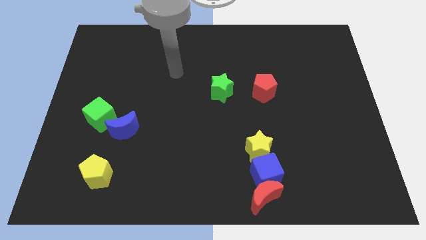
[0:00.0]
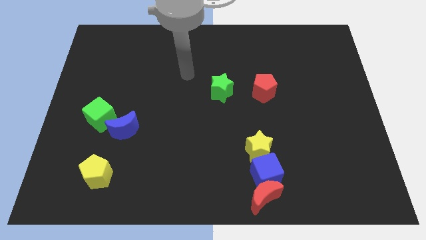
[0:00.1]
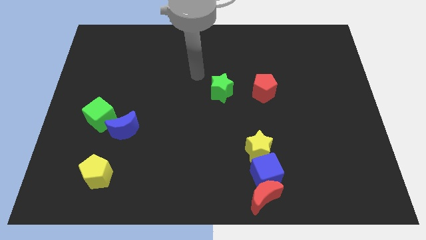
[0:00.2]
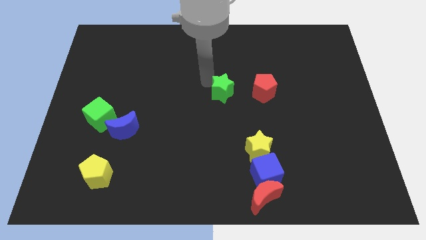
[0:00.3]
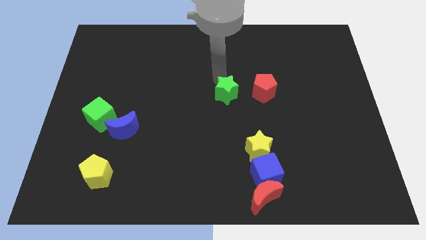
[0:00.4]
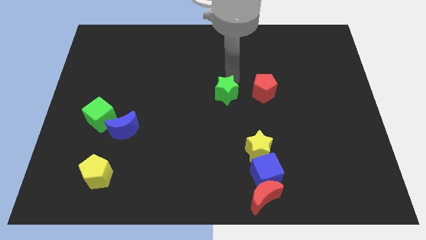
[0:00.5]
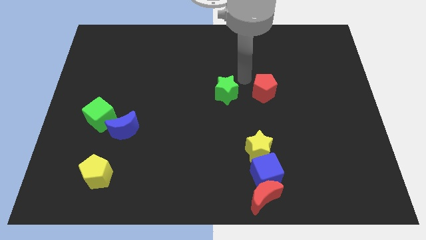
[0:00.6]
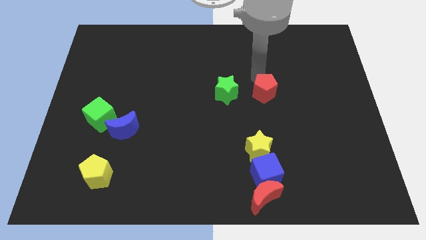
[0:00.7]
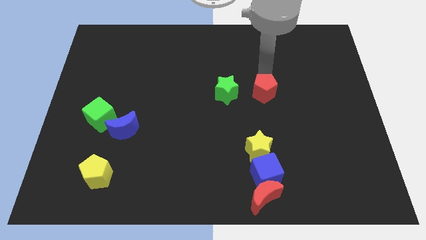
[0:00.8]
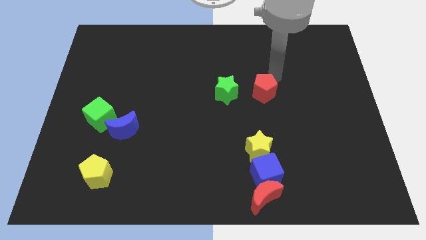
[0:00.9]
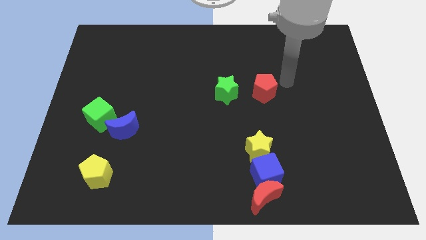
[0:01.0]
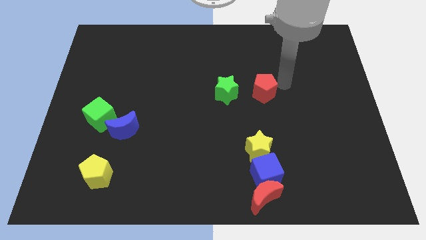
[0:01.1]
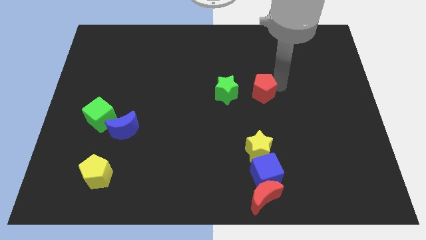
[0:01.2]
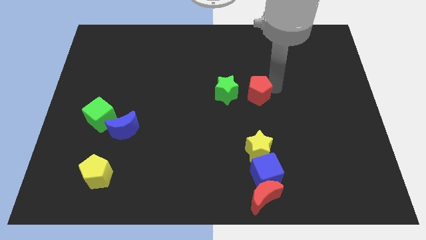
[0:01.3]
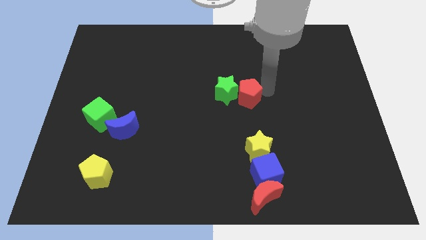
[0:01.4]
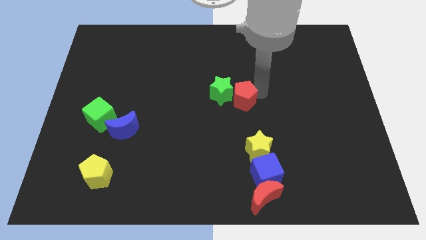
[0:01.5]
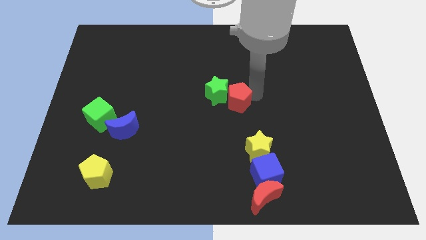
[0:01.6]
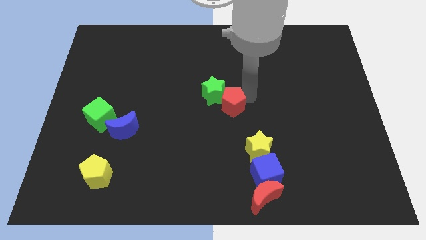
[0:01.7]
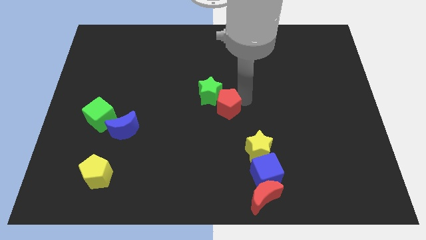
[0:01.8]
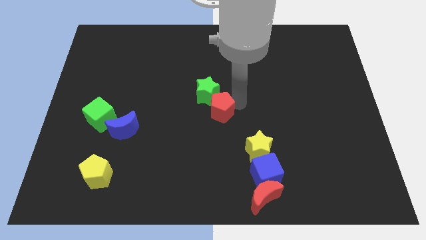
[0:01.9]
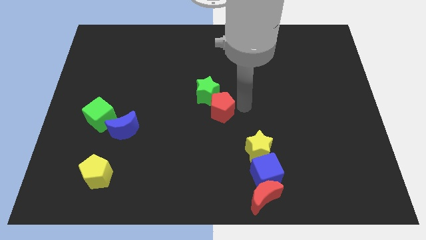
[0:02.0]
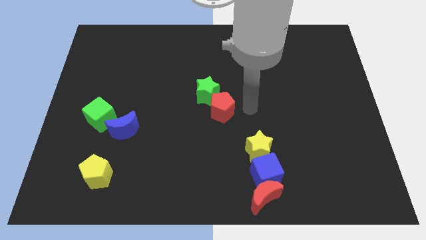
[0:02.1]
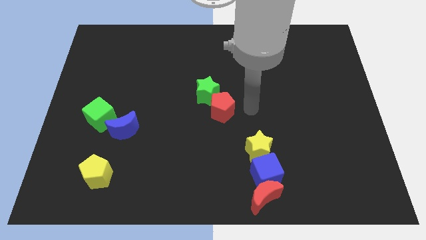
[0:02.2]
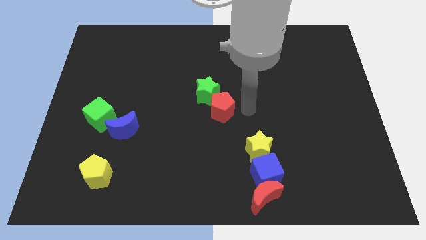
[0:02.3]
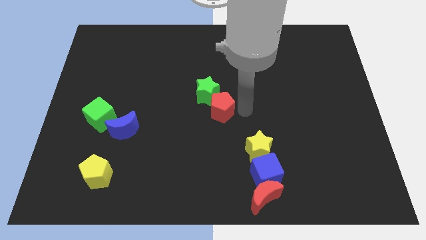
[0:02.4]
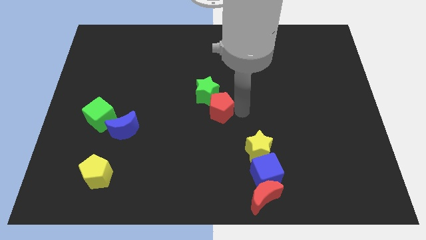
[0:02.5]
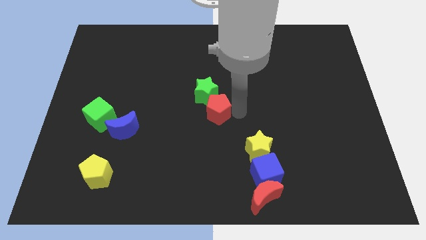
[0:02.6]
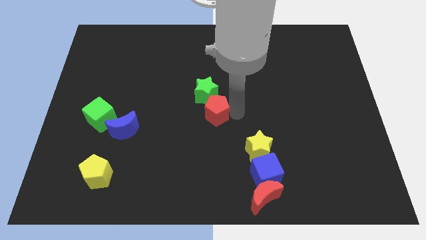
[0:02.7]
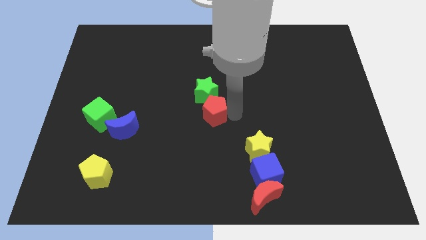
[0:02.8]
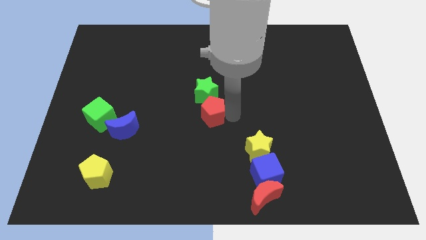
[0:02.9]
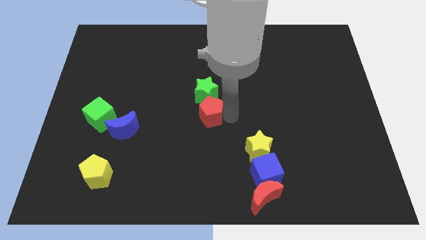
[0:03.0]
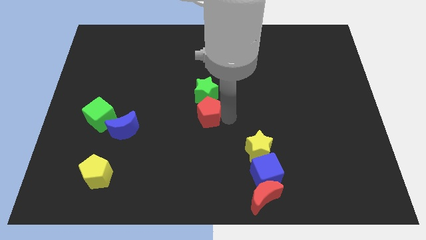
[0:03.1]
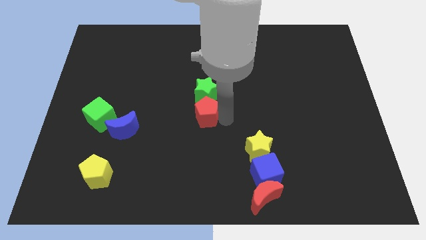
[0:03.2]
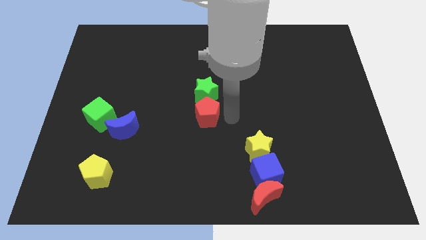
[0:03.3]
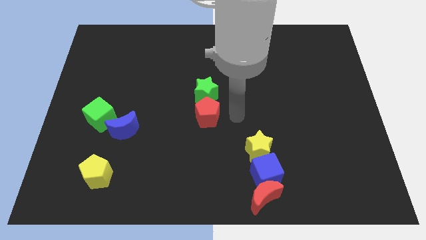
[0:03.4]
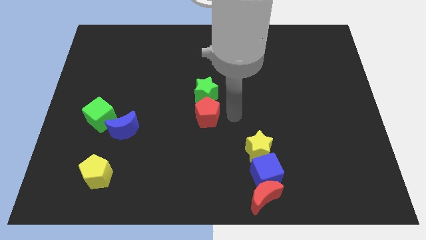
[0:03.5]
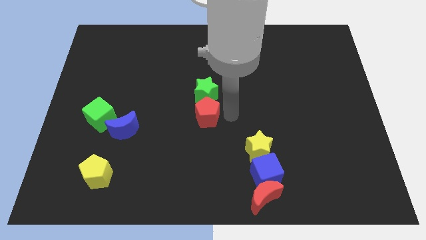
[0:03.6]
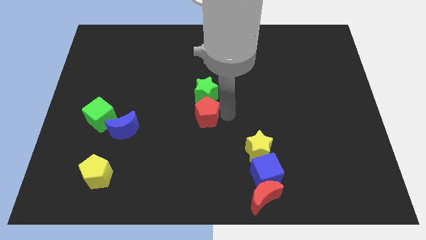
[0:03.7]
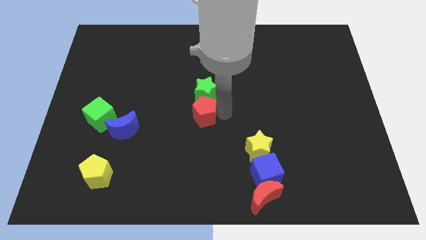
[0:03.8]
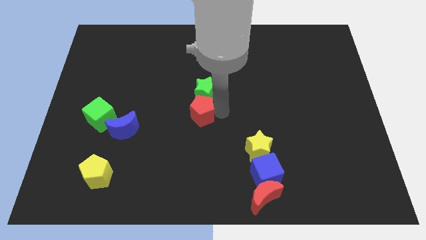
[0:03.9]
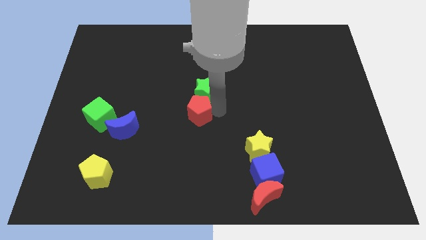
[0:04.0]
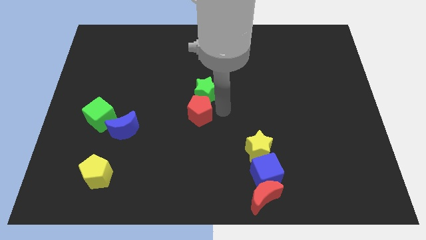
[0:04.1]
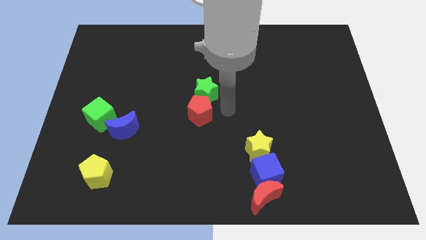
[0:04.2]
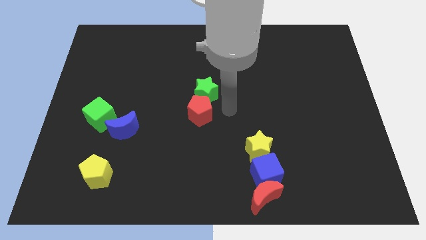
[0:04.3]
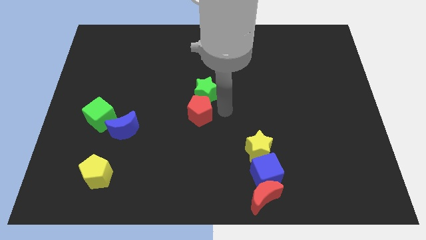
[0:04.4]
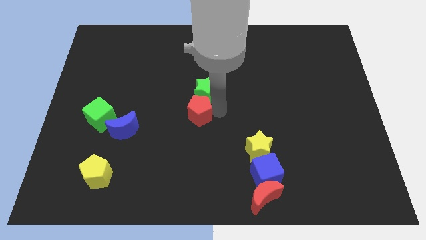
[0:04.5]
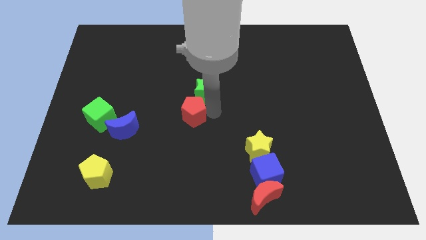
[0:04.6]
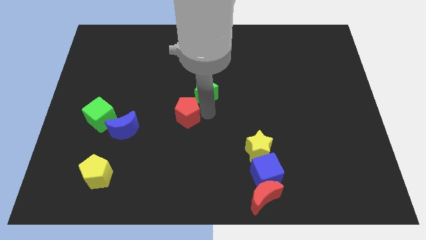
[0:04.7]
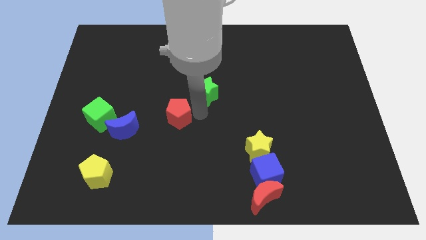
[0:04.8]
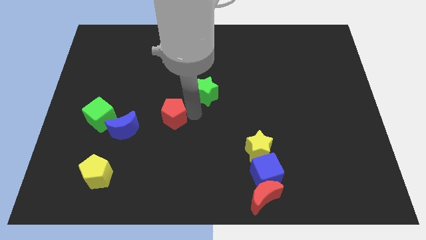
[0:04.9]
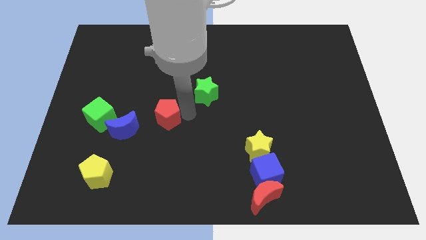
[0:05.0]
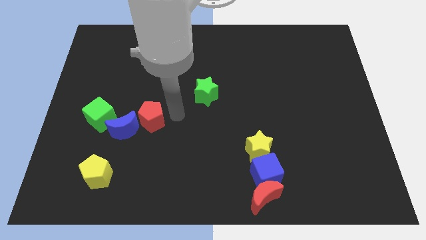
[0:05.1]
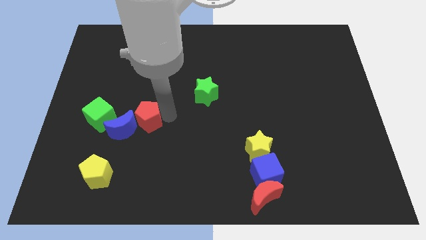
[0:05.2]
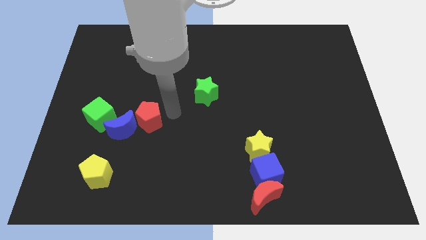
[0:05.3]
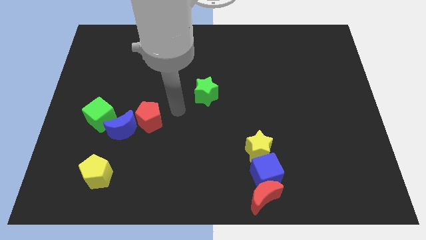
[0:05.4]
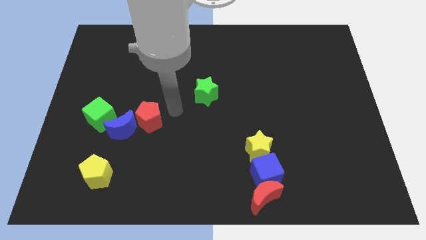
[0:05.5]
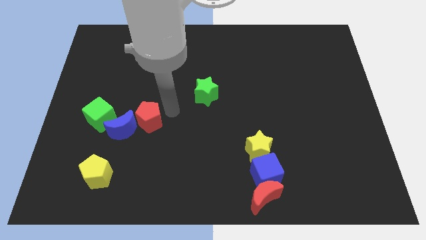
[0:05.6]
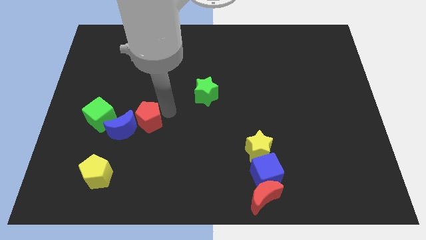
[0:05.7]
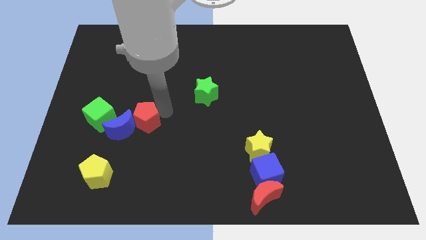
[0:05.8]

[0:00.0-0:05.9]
move the red pentagon towards the blue moon
